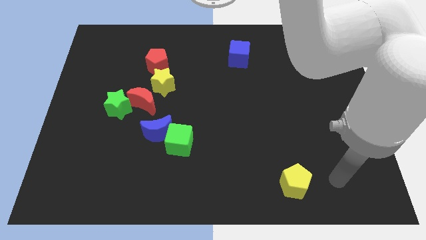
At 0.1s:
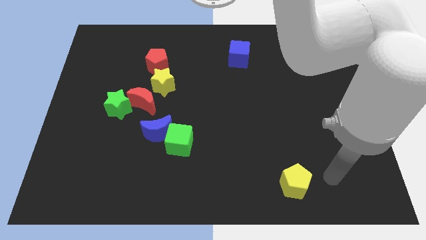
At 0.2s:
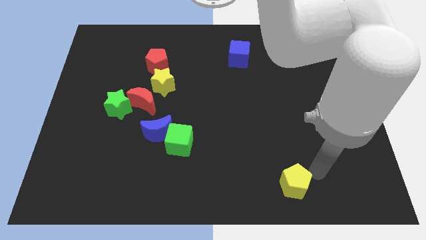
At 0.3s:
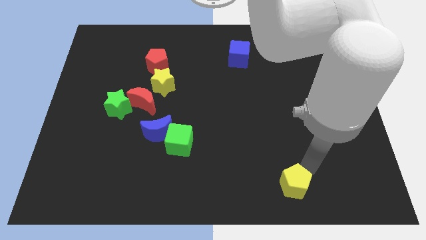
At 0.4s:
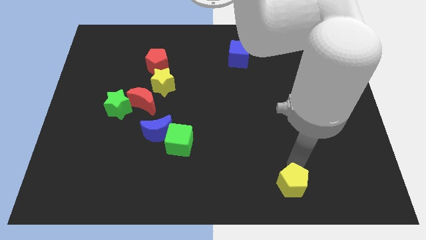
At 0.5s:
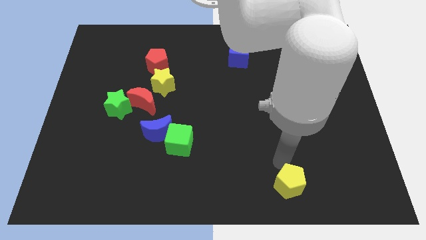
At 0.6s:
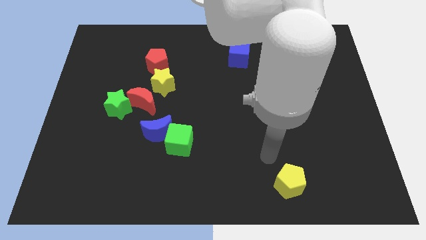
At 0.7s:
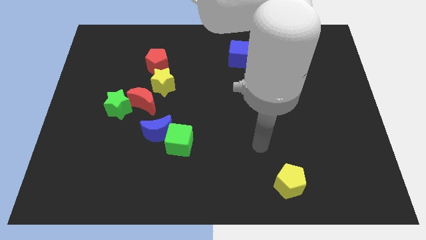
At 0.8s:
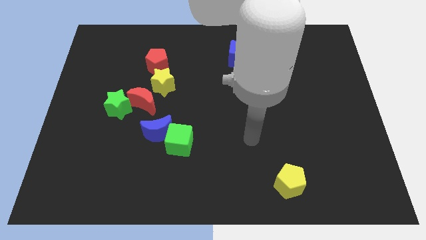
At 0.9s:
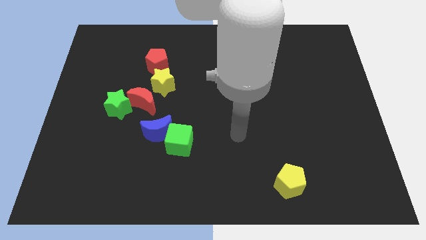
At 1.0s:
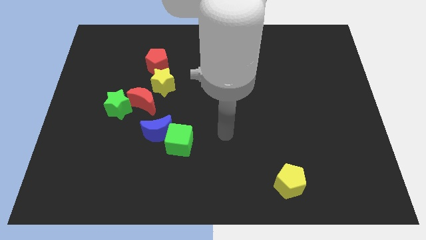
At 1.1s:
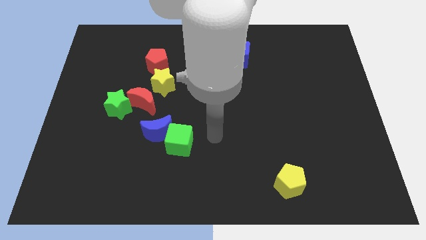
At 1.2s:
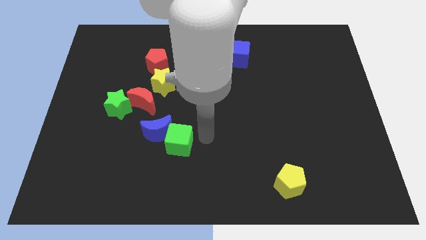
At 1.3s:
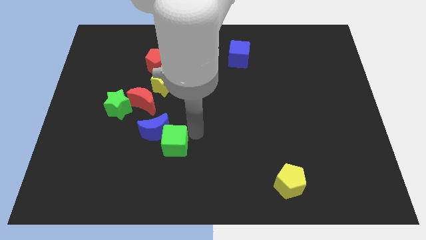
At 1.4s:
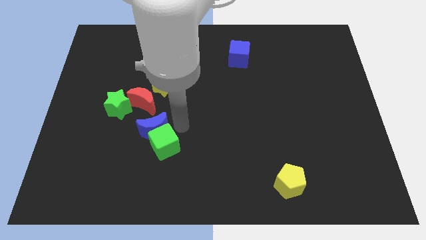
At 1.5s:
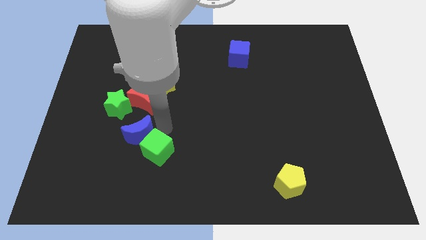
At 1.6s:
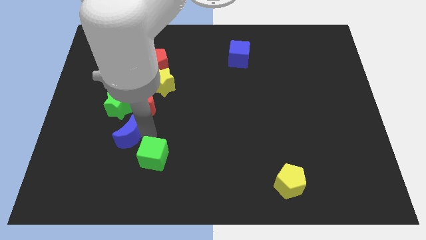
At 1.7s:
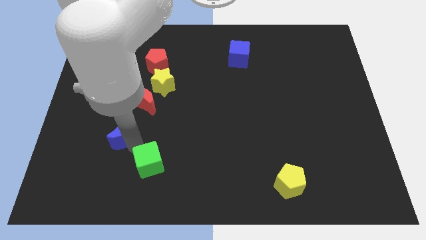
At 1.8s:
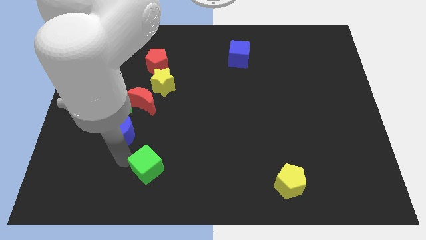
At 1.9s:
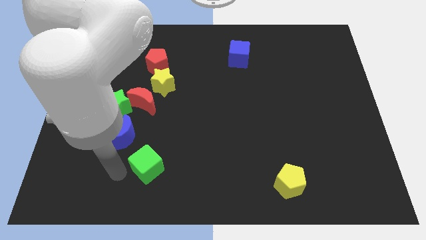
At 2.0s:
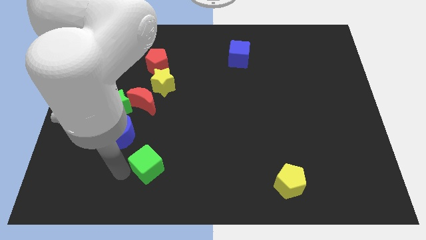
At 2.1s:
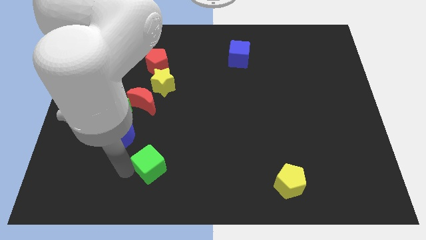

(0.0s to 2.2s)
pull the green cube apart from the blue moon

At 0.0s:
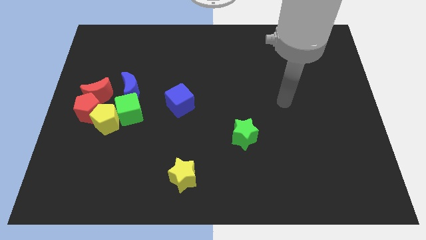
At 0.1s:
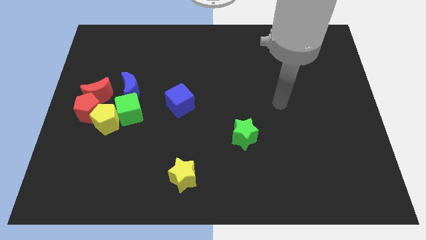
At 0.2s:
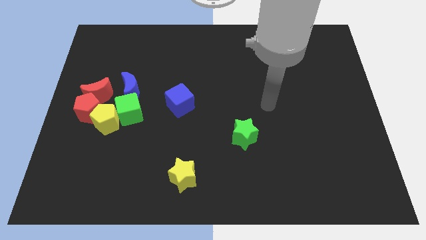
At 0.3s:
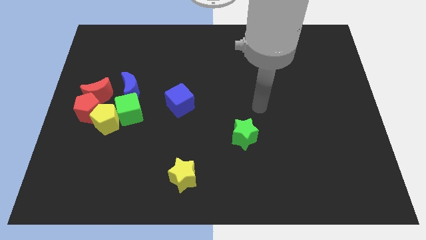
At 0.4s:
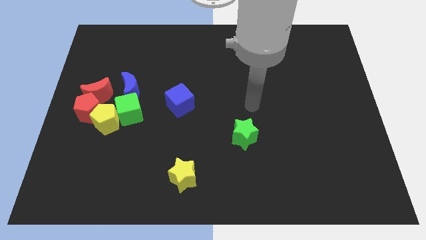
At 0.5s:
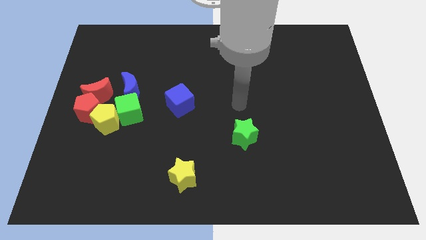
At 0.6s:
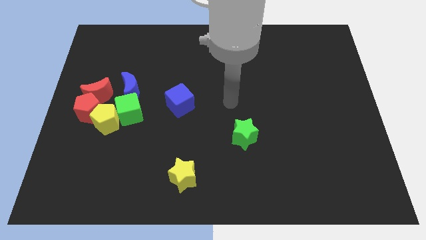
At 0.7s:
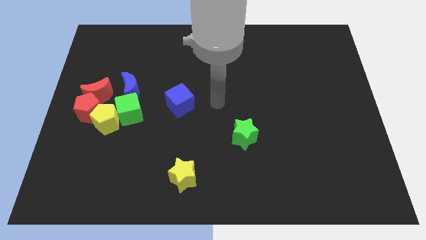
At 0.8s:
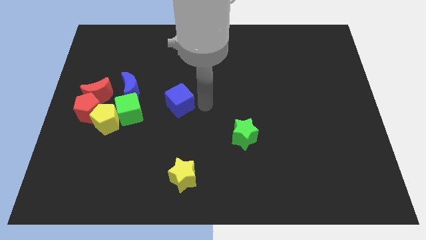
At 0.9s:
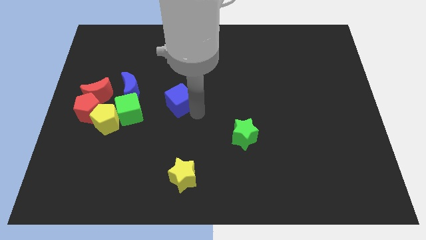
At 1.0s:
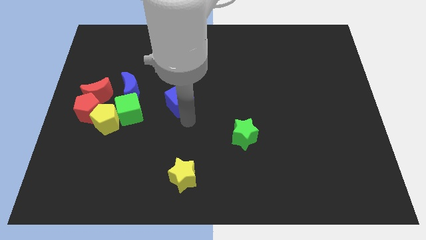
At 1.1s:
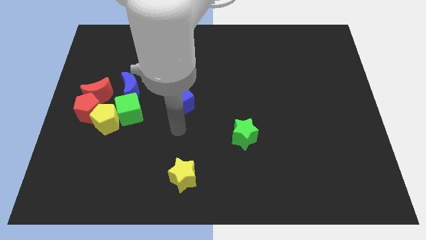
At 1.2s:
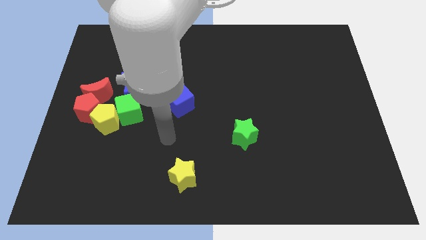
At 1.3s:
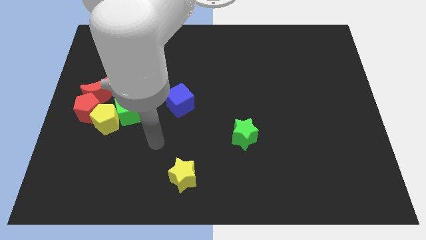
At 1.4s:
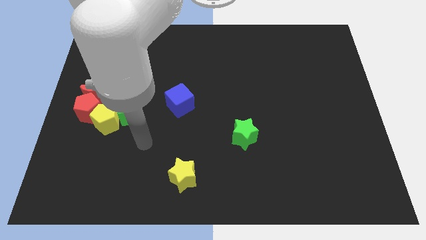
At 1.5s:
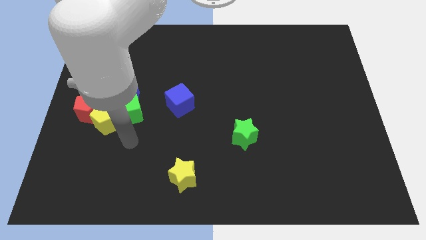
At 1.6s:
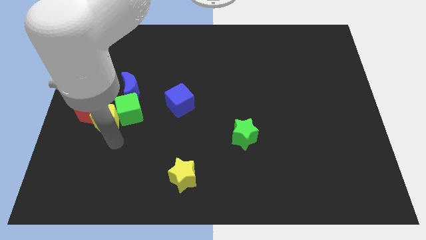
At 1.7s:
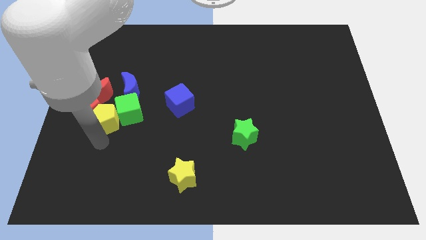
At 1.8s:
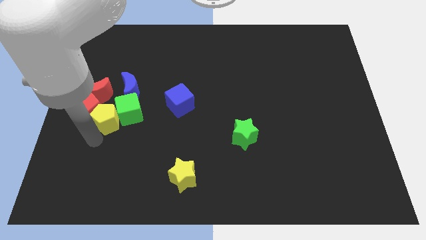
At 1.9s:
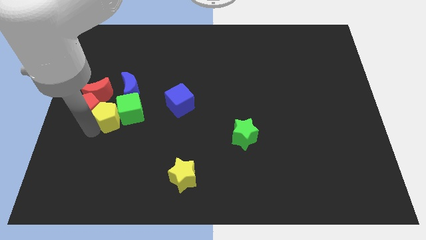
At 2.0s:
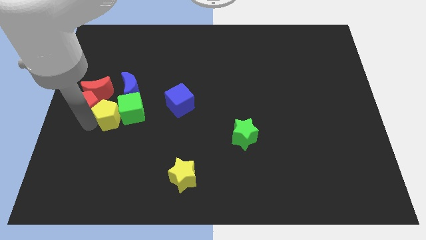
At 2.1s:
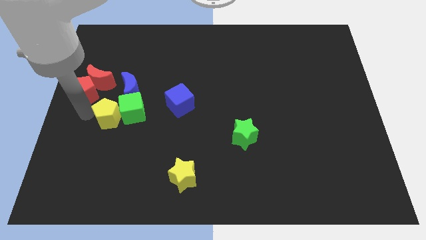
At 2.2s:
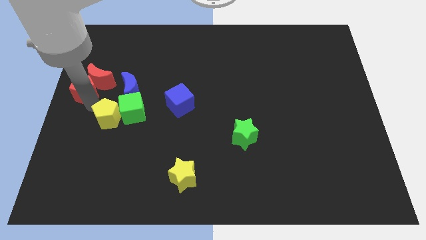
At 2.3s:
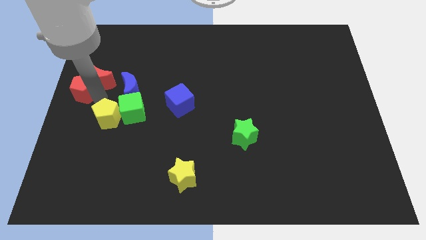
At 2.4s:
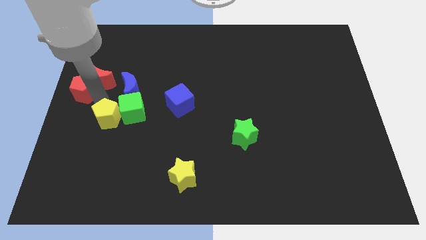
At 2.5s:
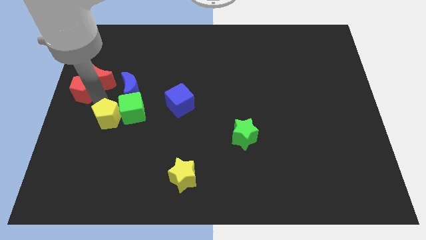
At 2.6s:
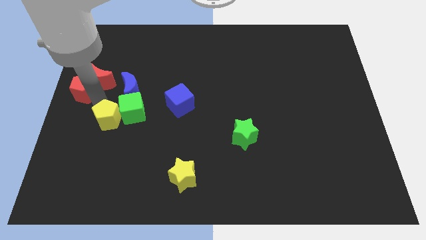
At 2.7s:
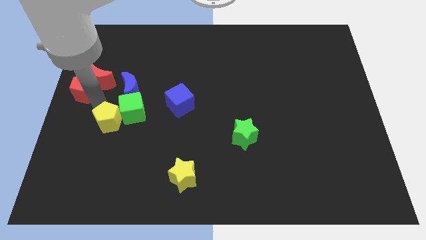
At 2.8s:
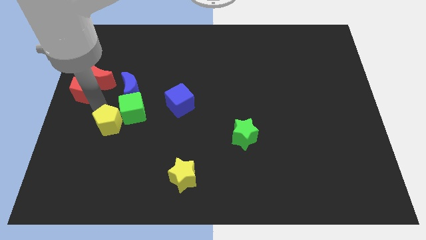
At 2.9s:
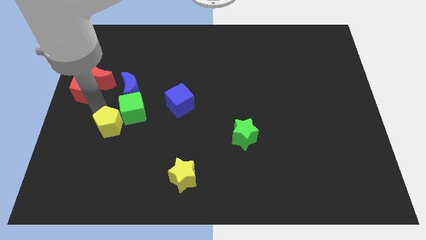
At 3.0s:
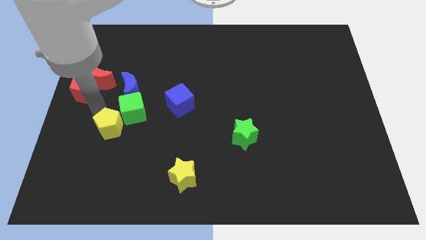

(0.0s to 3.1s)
move the yellow pentagon away from the clump

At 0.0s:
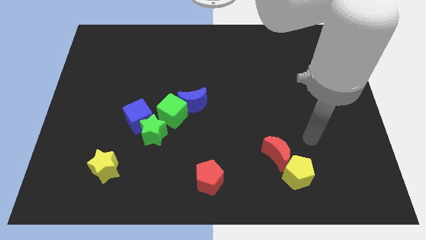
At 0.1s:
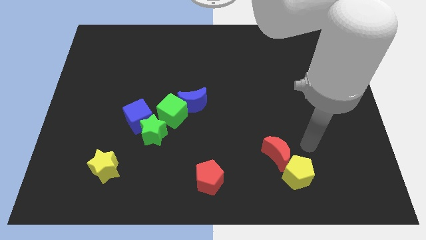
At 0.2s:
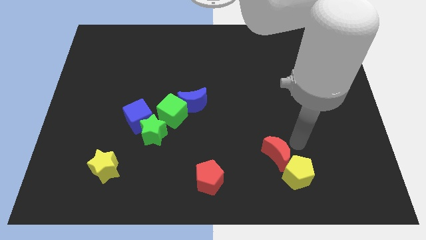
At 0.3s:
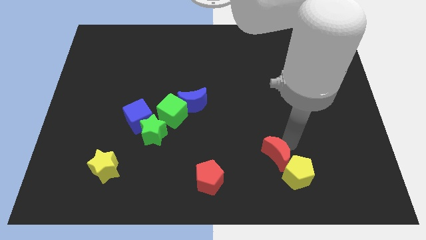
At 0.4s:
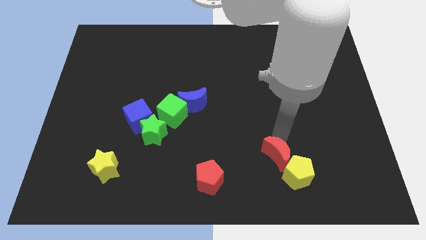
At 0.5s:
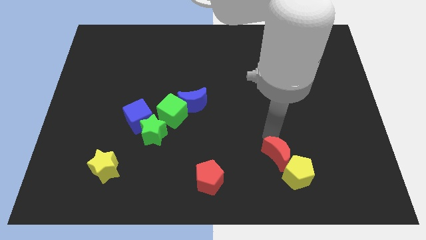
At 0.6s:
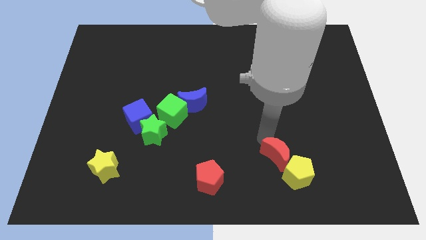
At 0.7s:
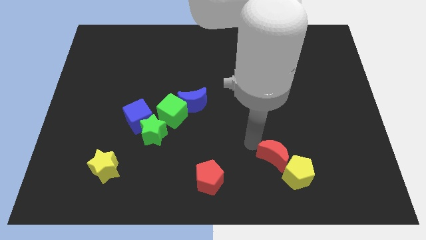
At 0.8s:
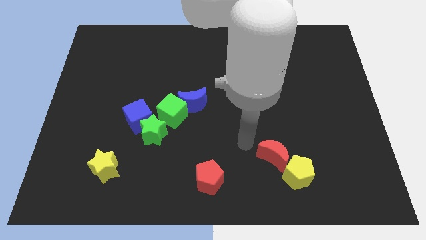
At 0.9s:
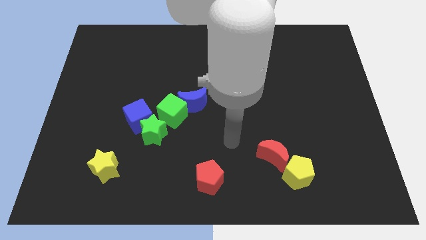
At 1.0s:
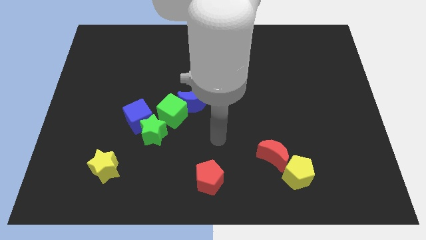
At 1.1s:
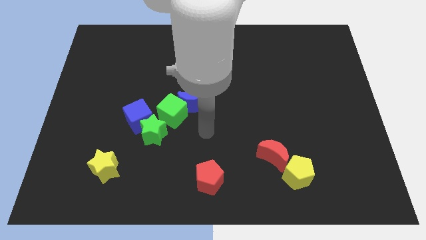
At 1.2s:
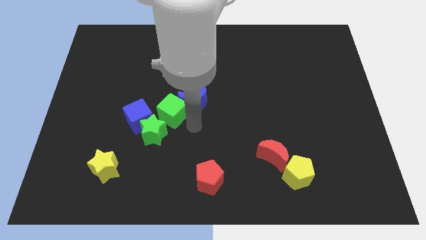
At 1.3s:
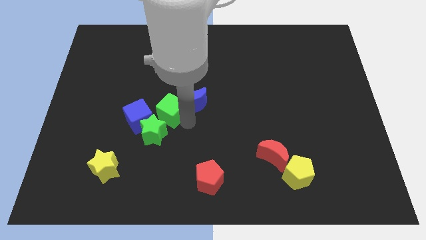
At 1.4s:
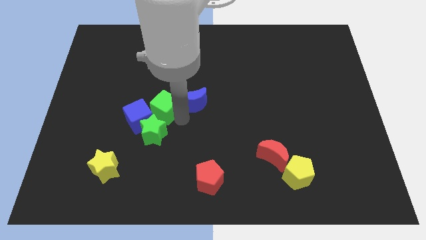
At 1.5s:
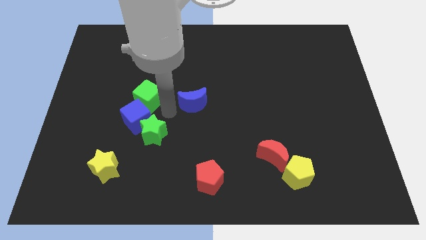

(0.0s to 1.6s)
pull the blue moon apart from the green cube

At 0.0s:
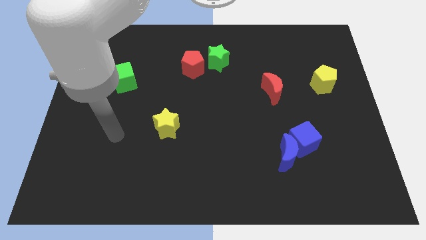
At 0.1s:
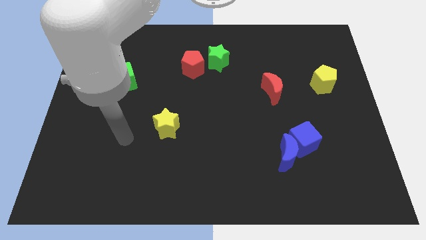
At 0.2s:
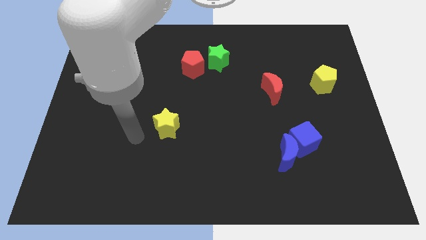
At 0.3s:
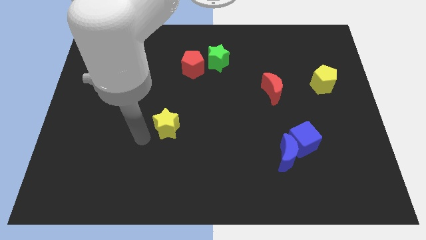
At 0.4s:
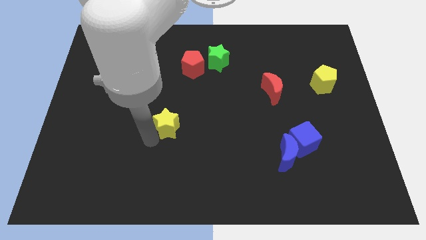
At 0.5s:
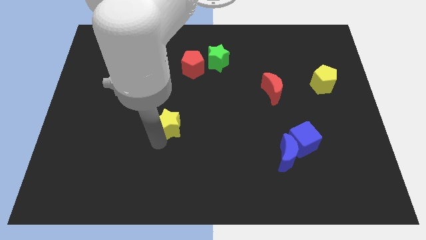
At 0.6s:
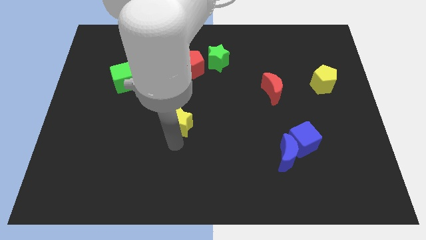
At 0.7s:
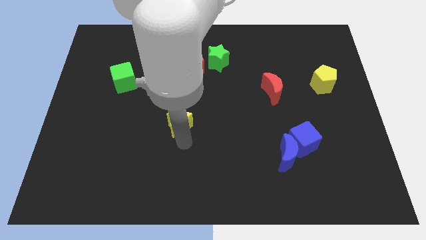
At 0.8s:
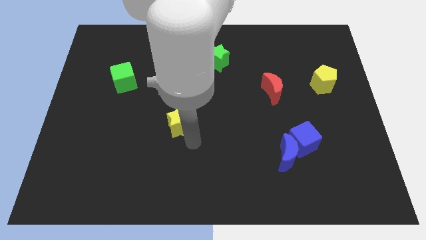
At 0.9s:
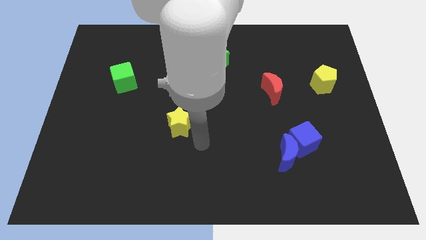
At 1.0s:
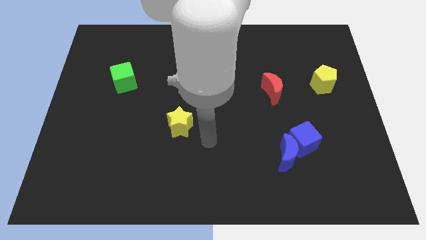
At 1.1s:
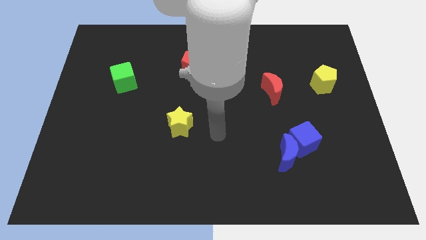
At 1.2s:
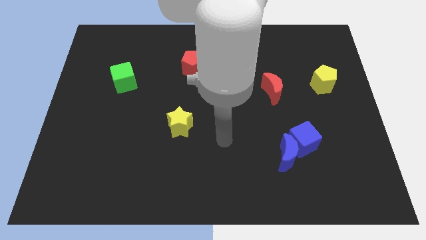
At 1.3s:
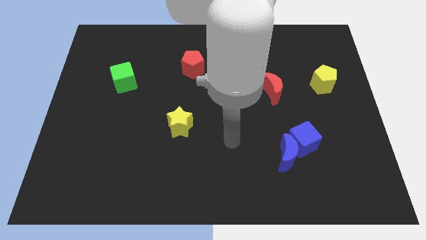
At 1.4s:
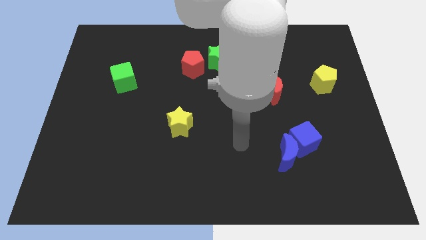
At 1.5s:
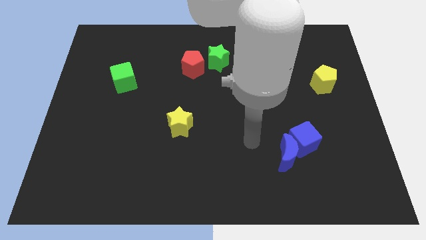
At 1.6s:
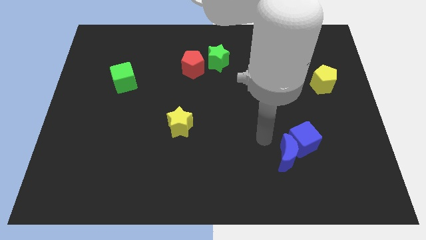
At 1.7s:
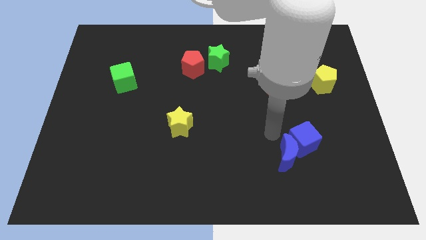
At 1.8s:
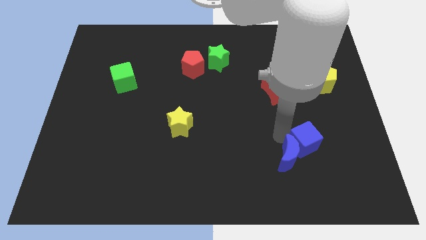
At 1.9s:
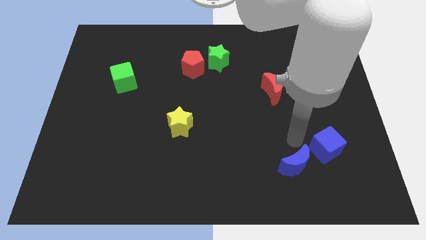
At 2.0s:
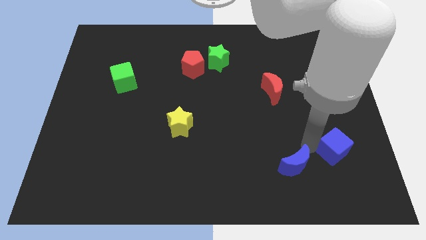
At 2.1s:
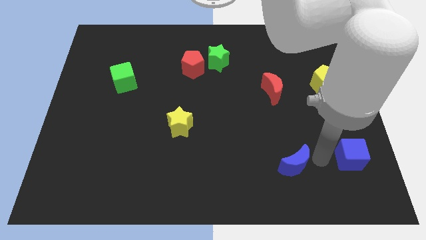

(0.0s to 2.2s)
move the blue moon away from the blue cube

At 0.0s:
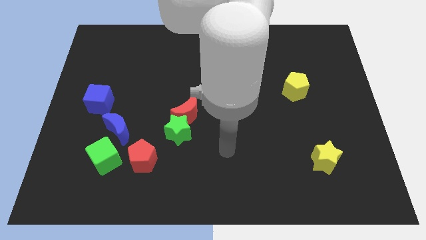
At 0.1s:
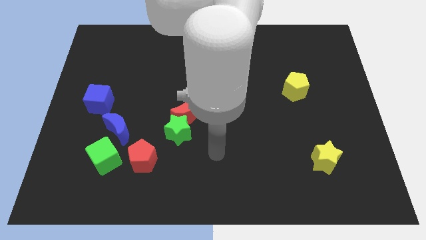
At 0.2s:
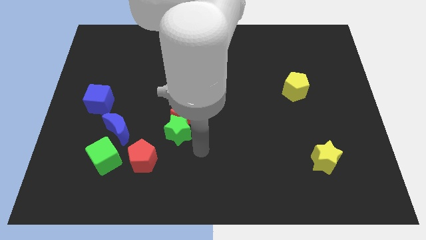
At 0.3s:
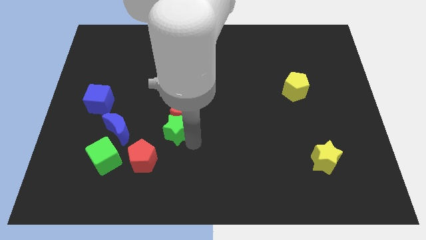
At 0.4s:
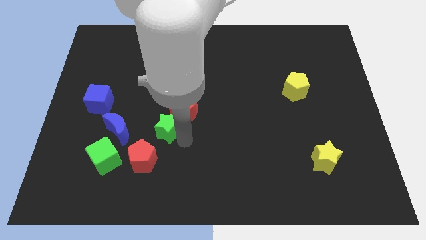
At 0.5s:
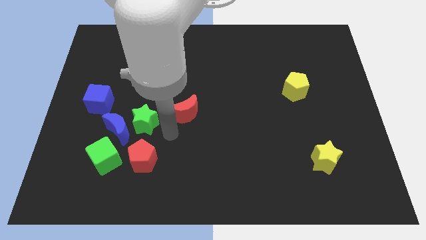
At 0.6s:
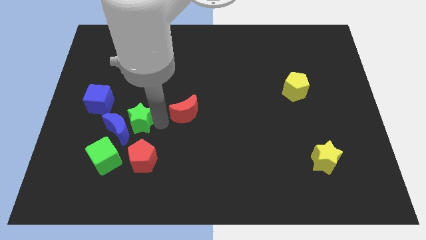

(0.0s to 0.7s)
move the red moon away from the green star
